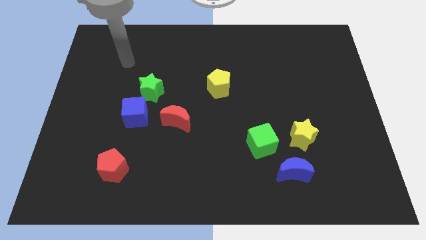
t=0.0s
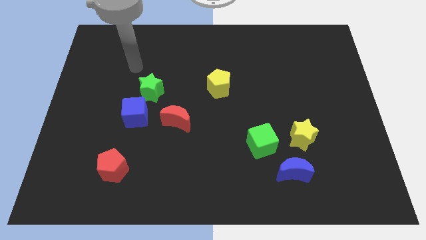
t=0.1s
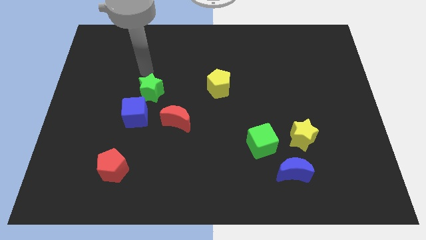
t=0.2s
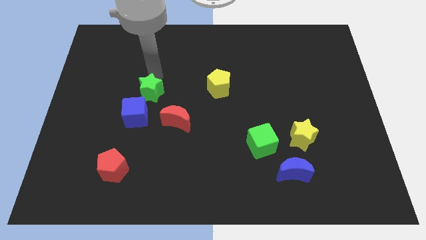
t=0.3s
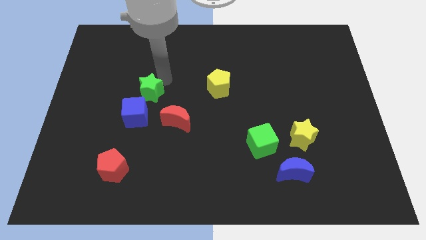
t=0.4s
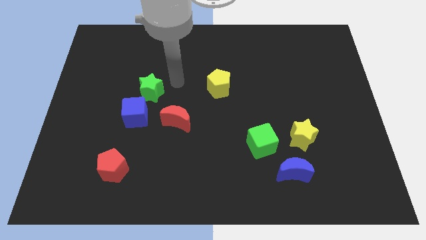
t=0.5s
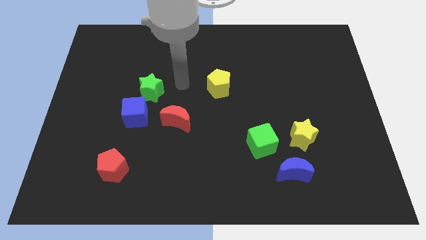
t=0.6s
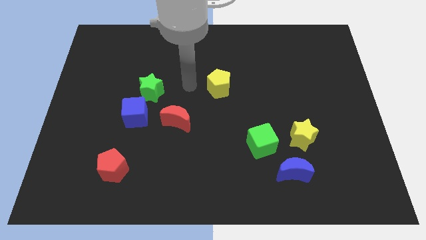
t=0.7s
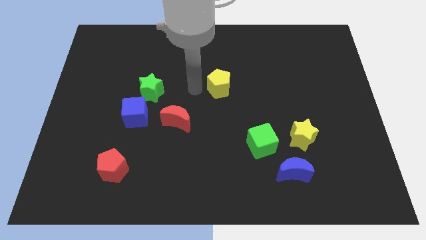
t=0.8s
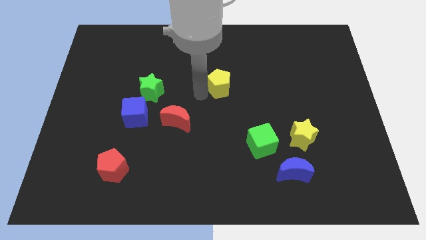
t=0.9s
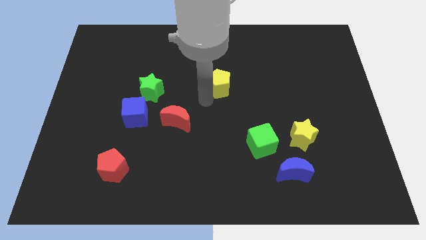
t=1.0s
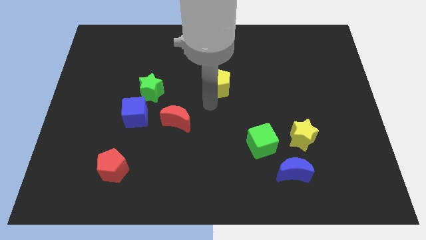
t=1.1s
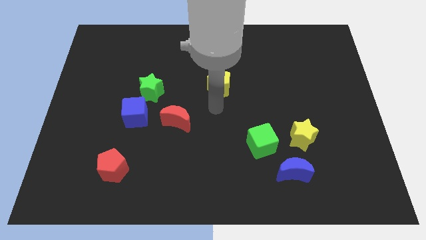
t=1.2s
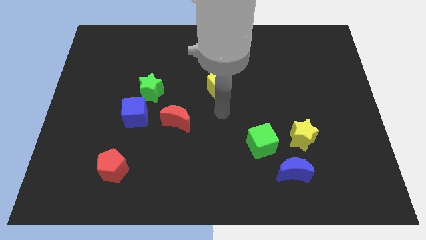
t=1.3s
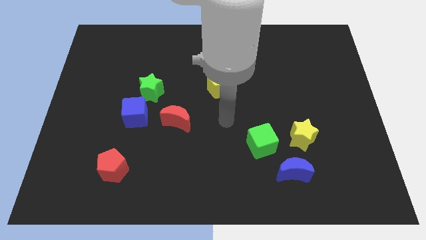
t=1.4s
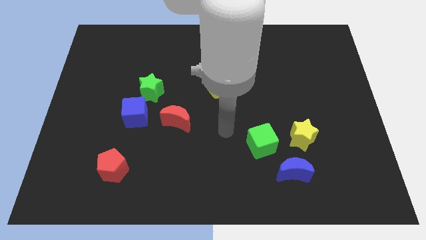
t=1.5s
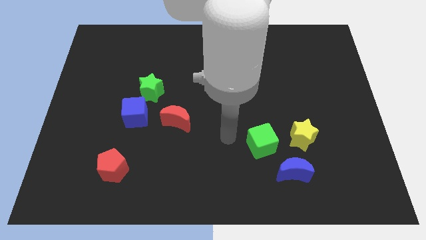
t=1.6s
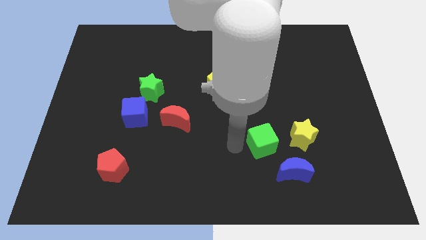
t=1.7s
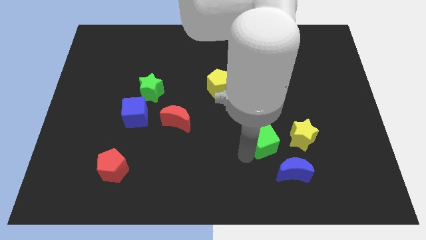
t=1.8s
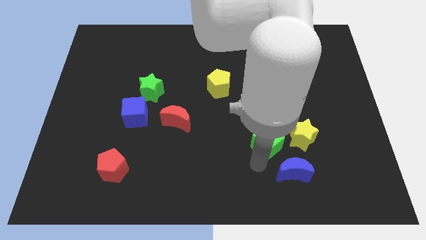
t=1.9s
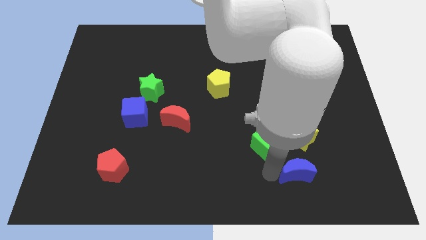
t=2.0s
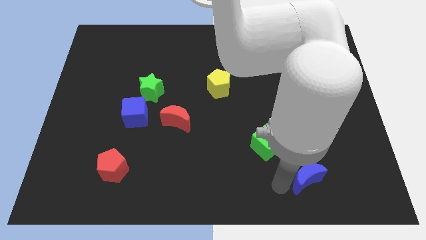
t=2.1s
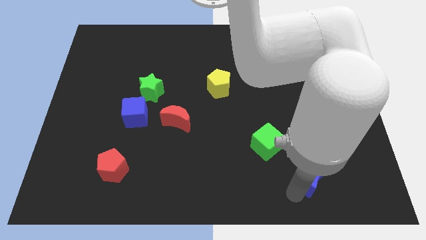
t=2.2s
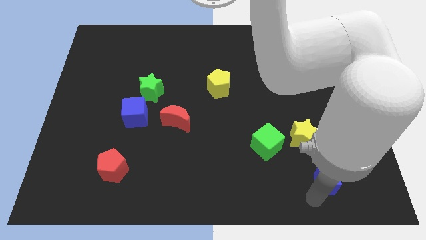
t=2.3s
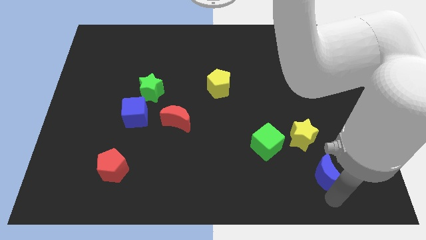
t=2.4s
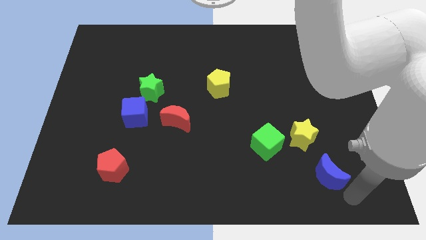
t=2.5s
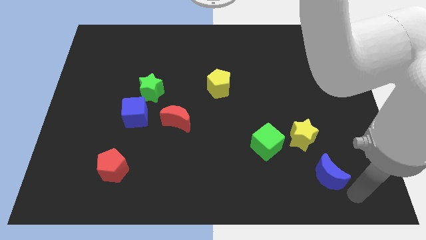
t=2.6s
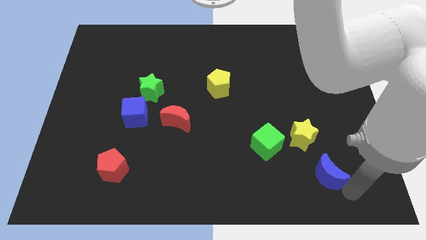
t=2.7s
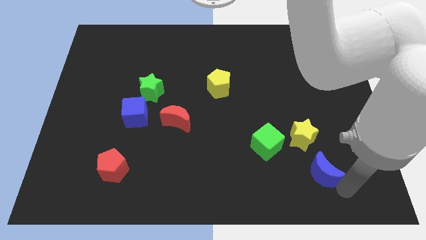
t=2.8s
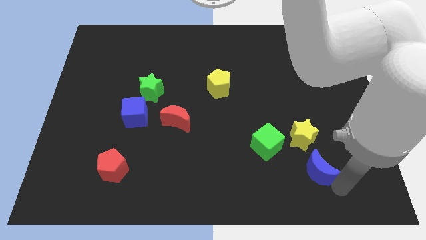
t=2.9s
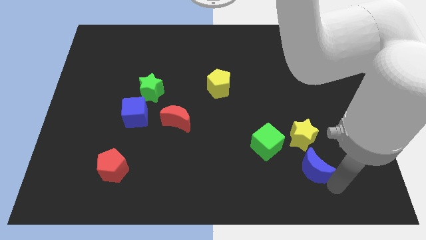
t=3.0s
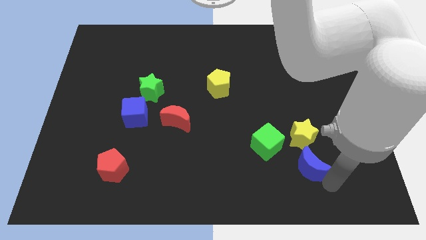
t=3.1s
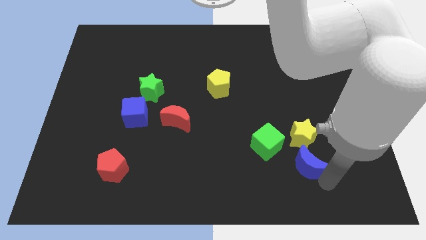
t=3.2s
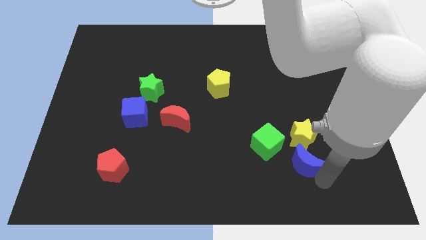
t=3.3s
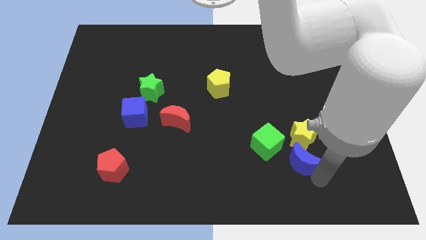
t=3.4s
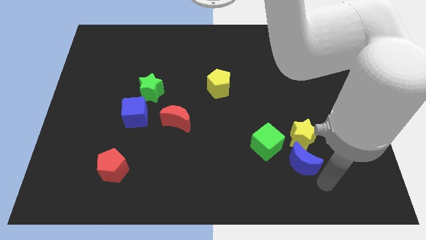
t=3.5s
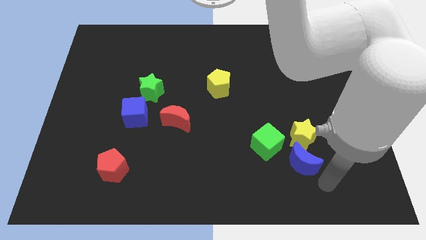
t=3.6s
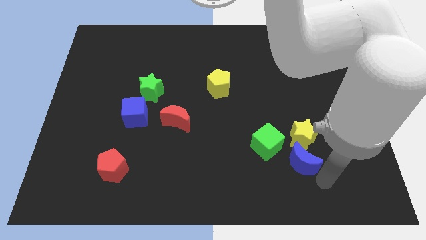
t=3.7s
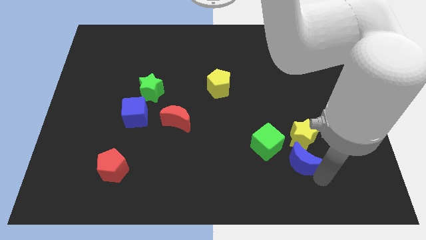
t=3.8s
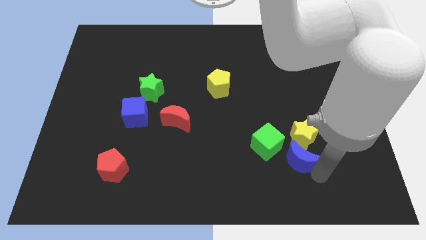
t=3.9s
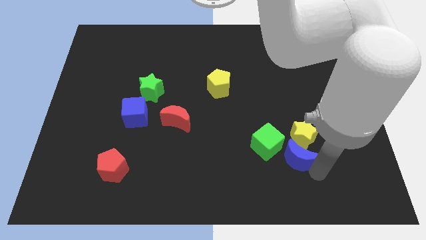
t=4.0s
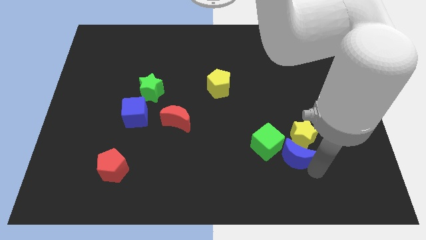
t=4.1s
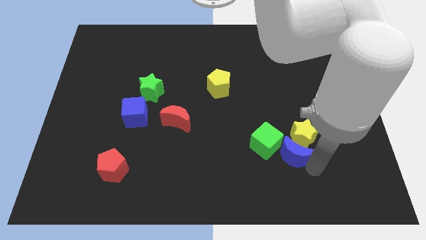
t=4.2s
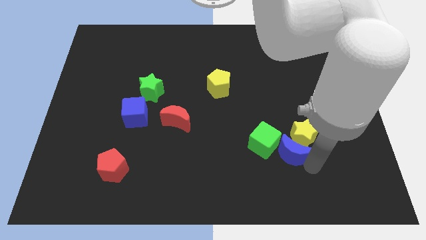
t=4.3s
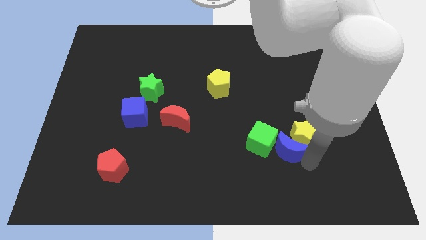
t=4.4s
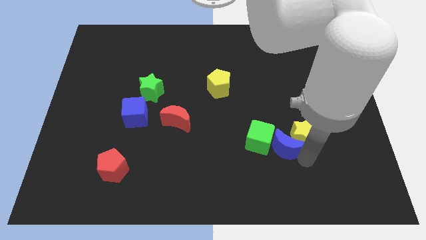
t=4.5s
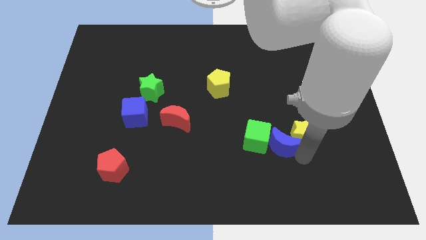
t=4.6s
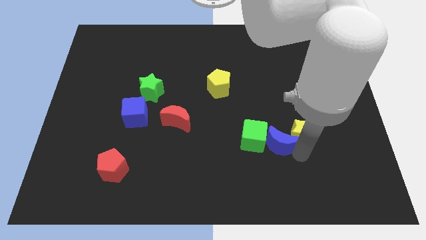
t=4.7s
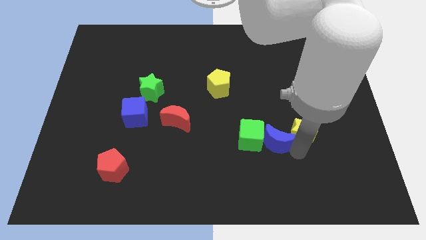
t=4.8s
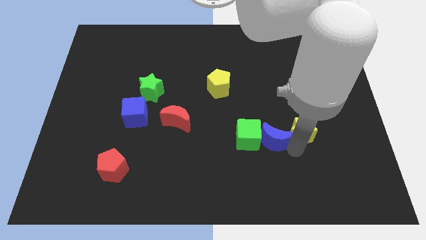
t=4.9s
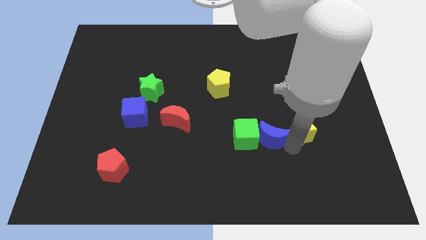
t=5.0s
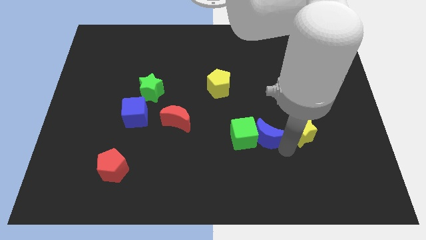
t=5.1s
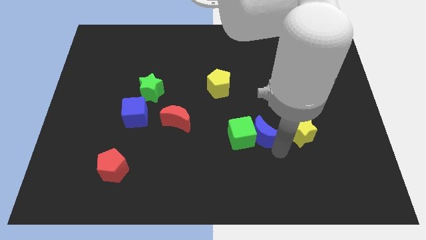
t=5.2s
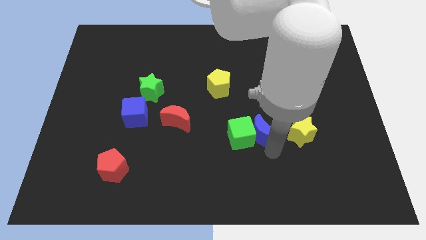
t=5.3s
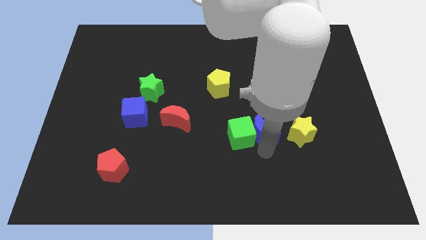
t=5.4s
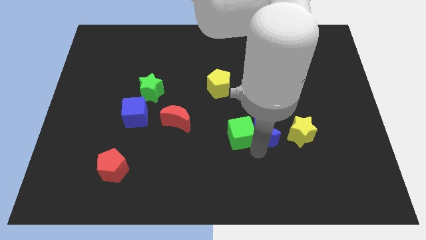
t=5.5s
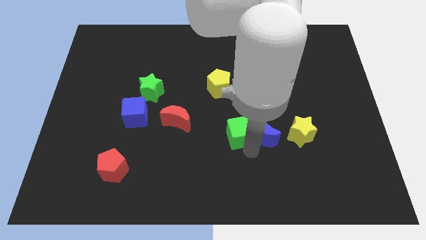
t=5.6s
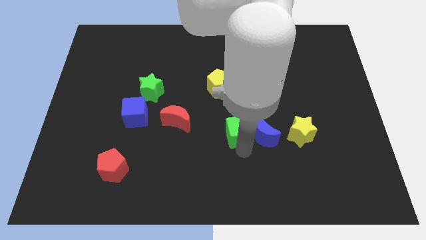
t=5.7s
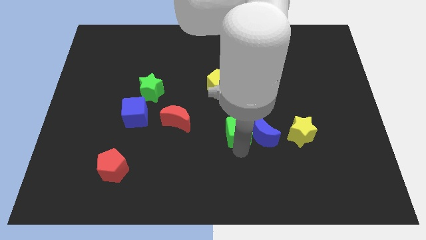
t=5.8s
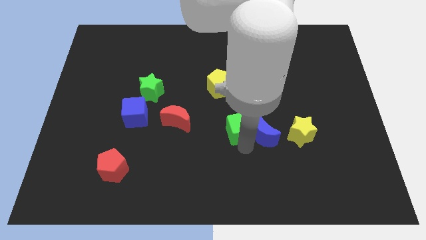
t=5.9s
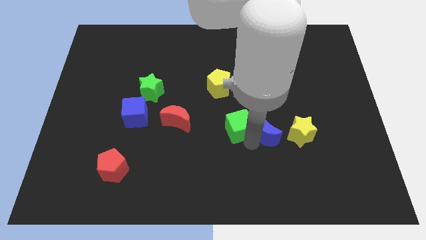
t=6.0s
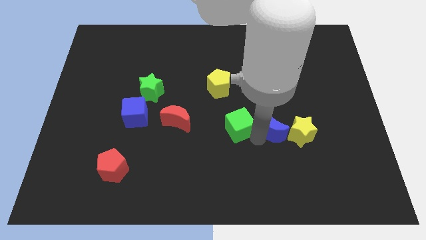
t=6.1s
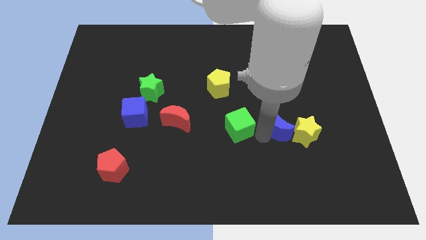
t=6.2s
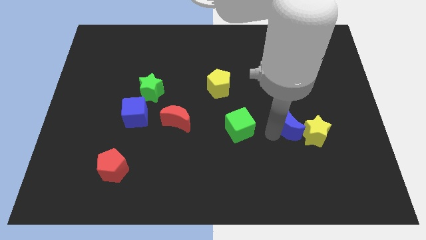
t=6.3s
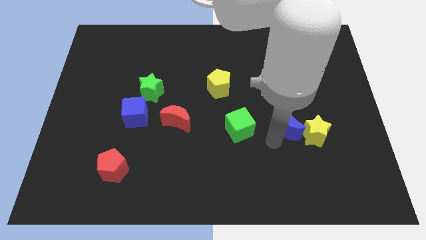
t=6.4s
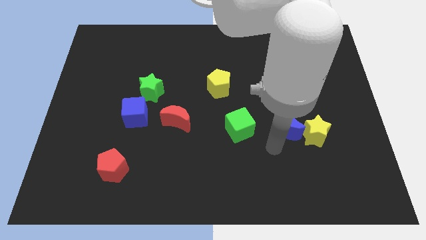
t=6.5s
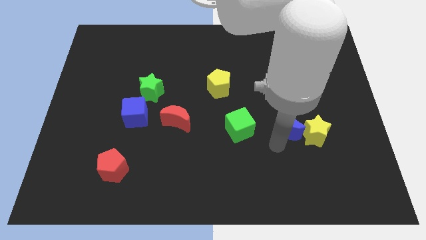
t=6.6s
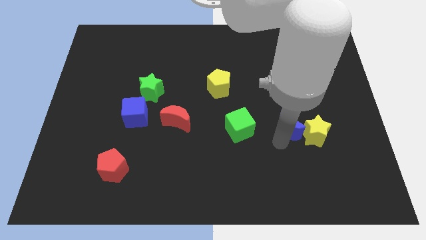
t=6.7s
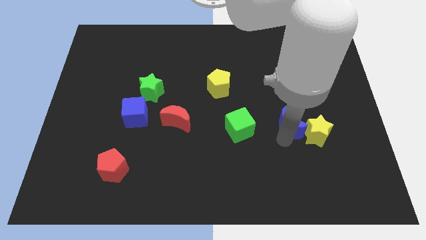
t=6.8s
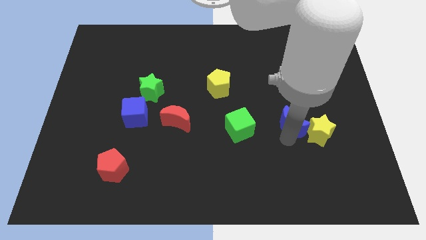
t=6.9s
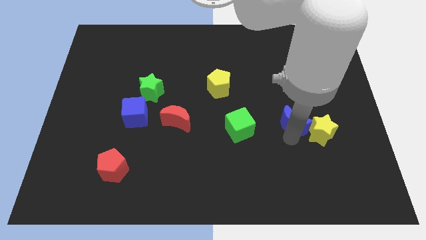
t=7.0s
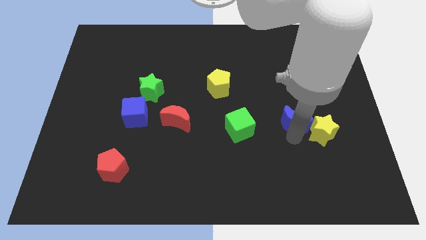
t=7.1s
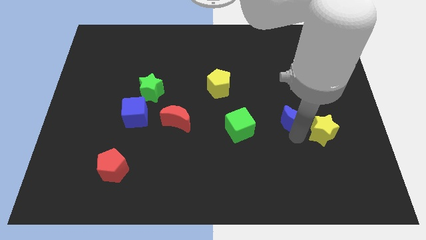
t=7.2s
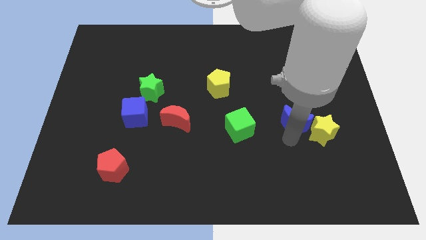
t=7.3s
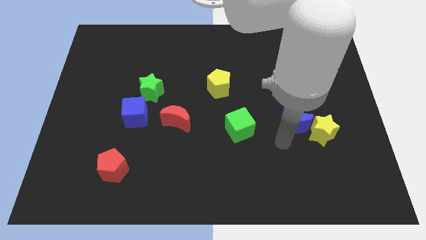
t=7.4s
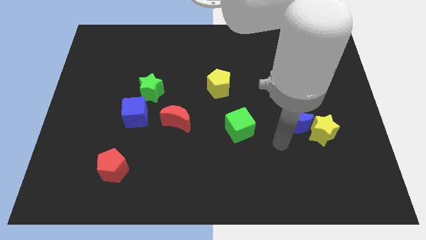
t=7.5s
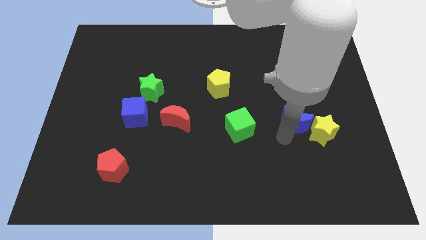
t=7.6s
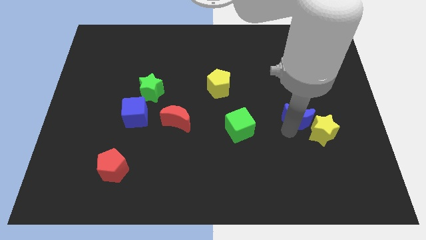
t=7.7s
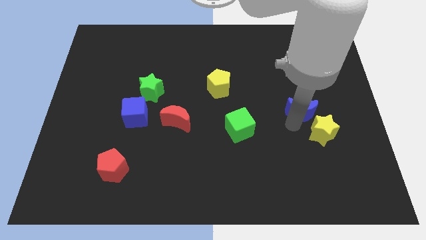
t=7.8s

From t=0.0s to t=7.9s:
slide the blue moon above the yellow star
